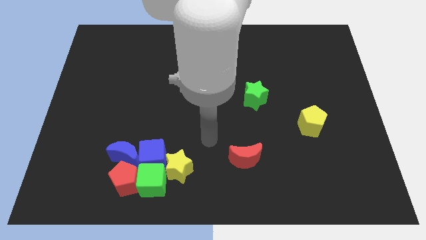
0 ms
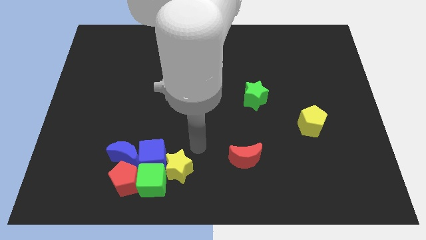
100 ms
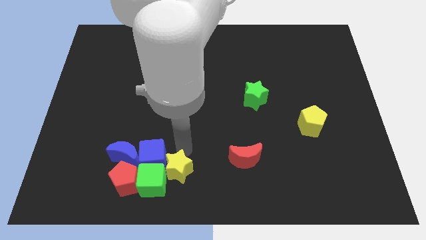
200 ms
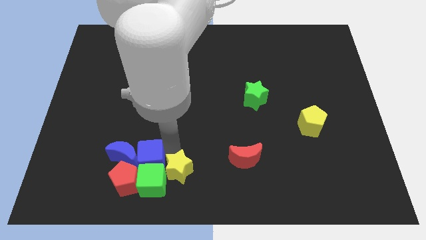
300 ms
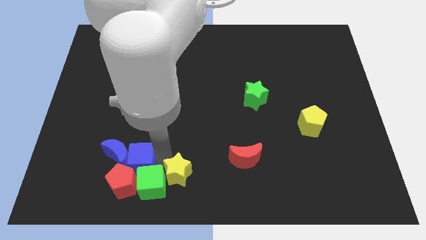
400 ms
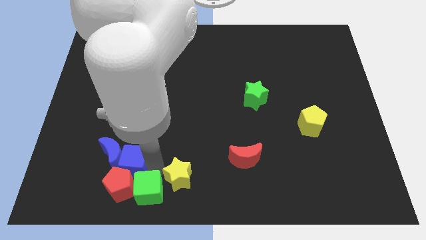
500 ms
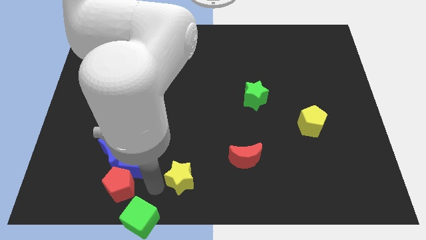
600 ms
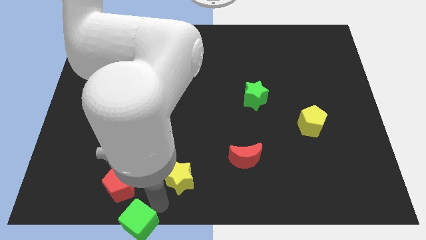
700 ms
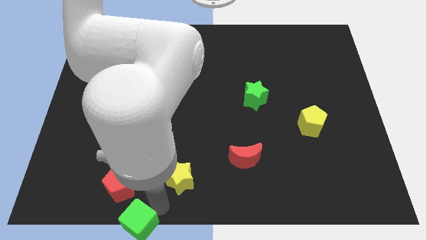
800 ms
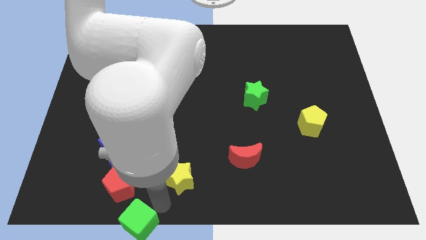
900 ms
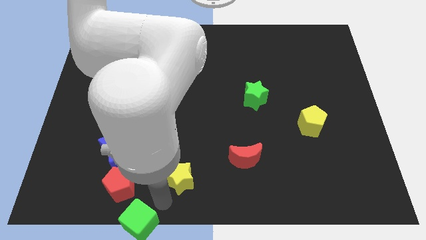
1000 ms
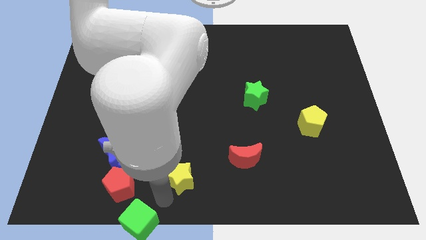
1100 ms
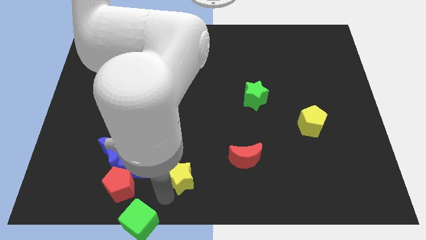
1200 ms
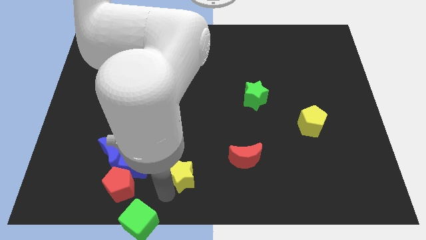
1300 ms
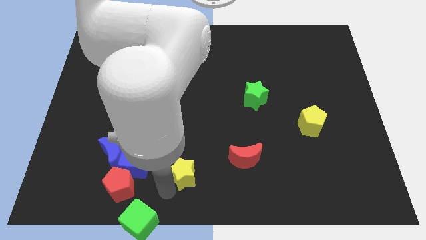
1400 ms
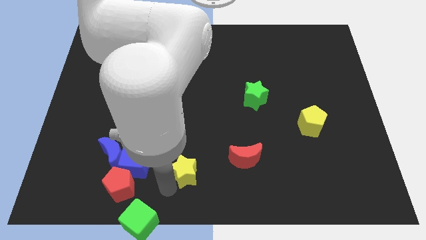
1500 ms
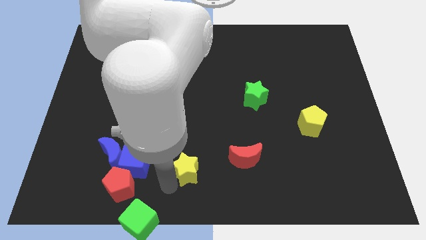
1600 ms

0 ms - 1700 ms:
pull the yellow star apart from the green cube and blue cube

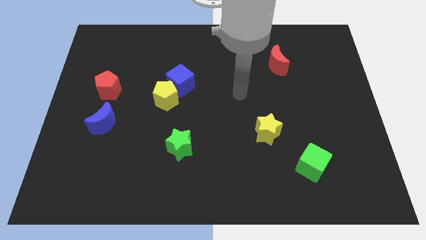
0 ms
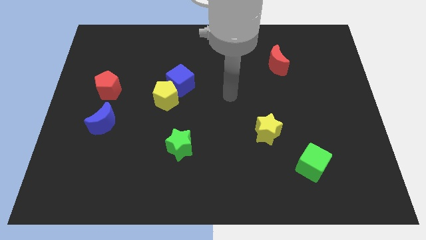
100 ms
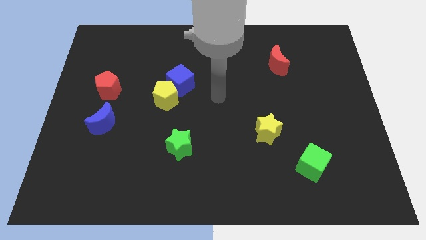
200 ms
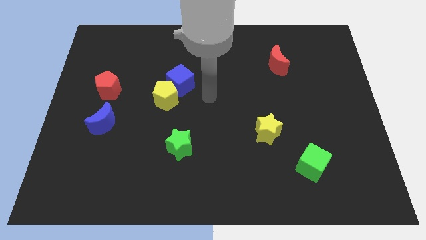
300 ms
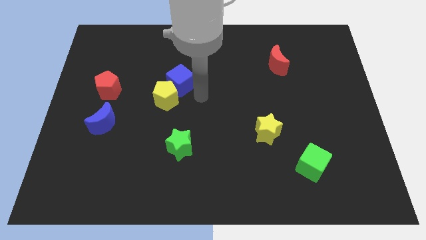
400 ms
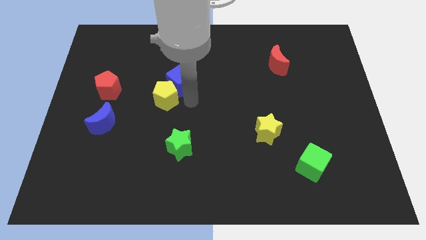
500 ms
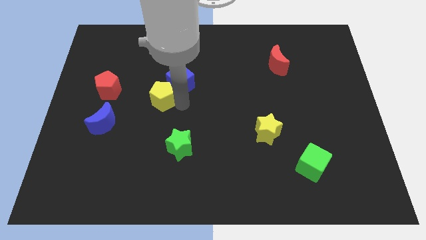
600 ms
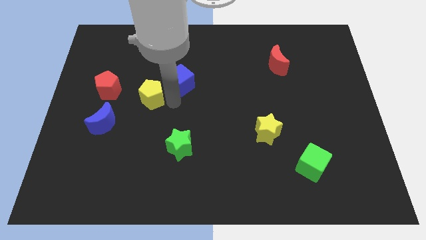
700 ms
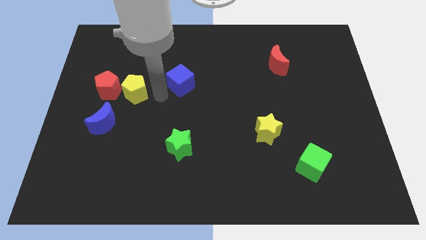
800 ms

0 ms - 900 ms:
separate the blue cube from the yellow pentagon

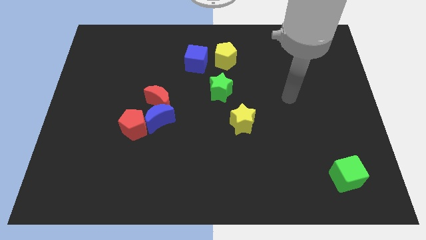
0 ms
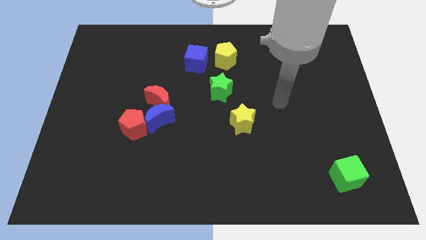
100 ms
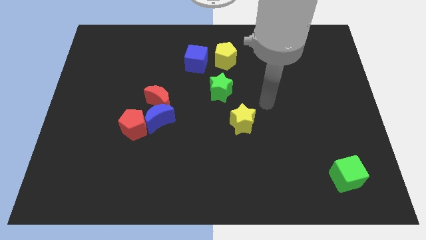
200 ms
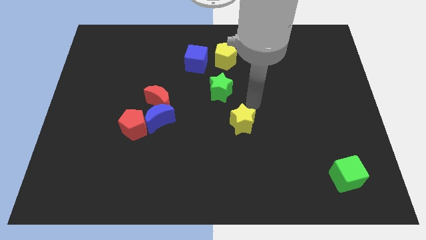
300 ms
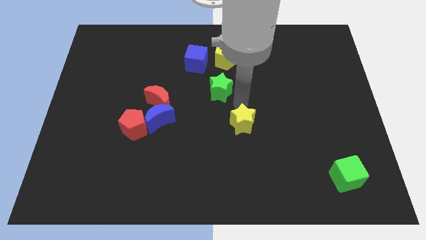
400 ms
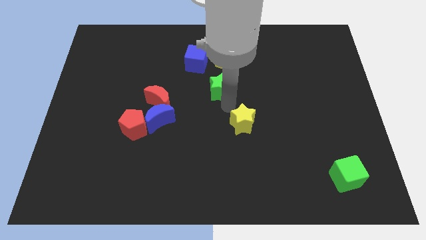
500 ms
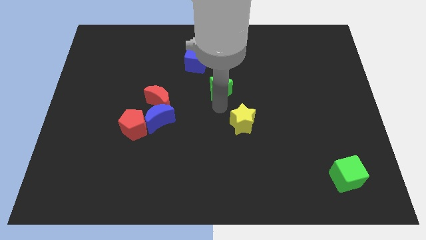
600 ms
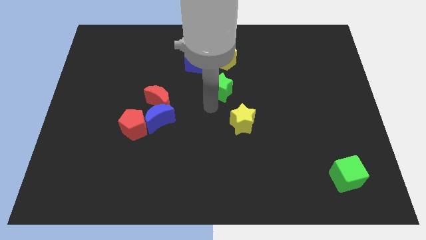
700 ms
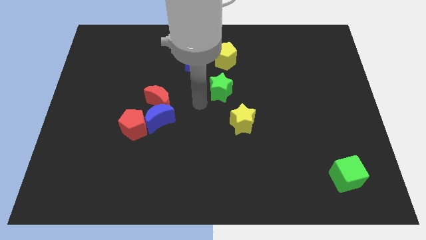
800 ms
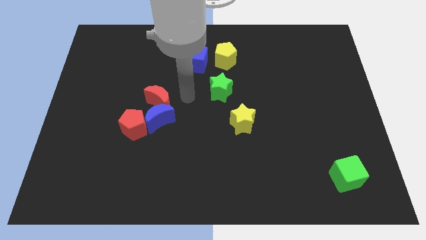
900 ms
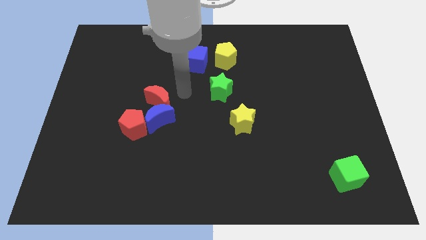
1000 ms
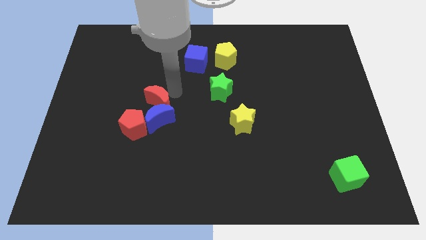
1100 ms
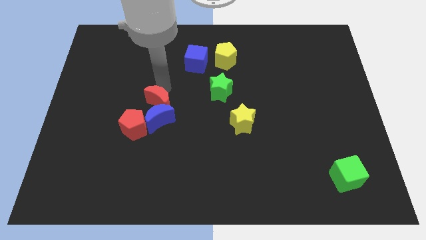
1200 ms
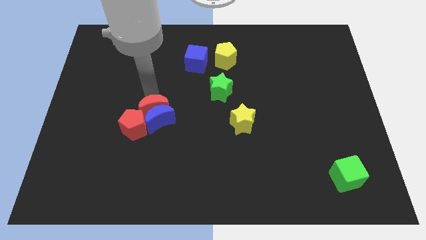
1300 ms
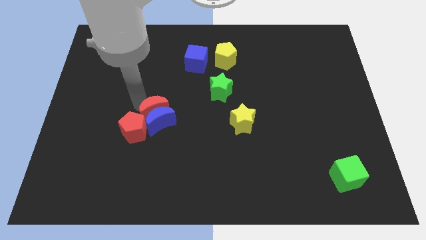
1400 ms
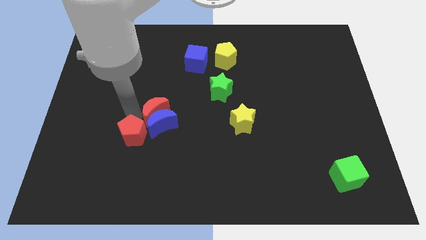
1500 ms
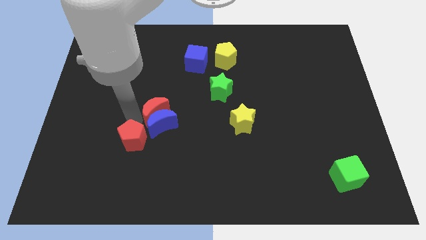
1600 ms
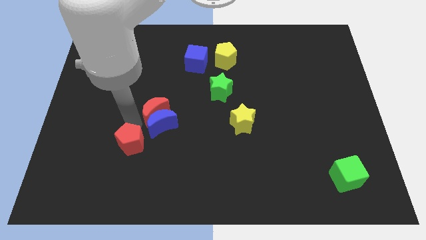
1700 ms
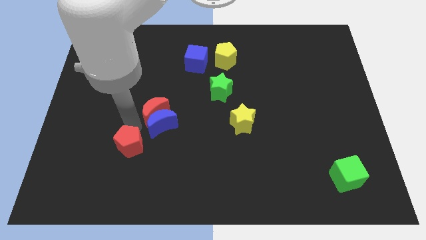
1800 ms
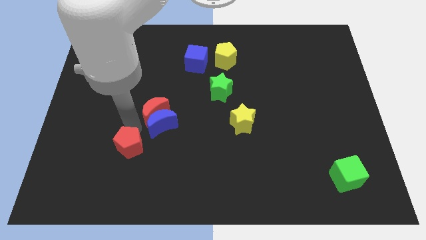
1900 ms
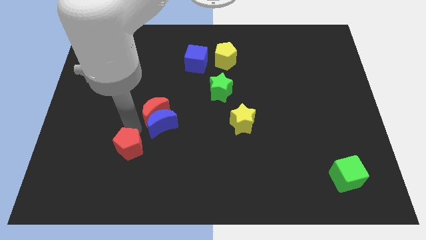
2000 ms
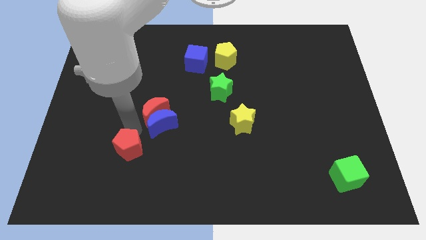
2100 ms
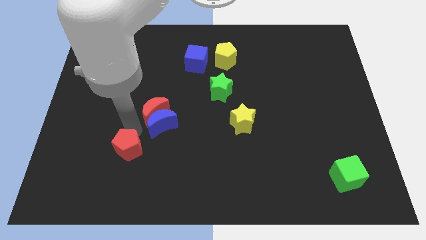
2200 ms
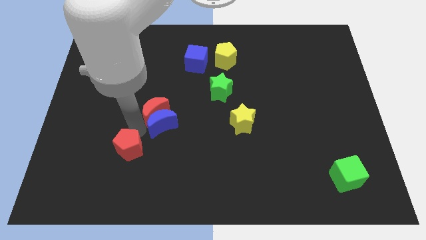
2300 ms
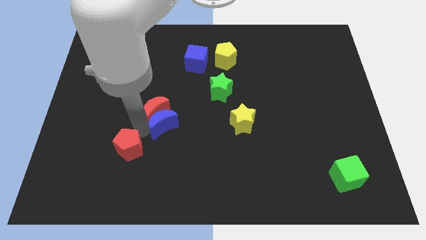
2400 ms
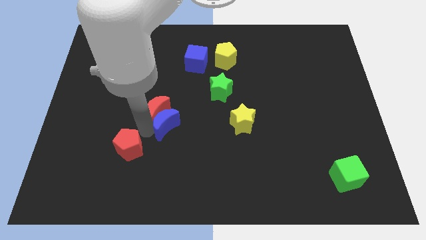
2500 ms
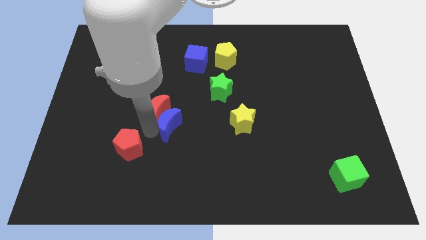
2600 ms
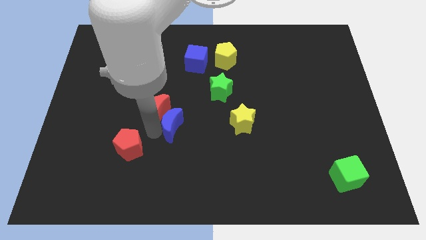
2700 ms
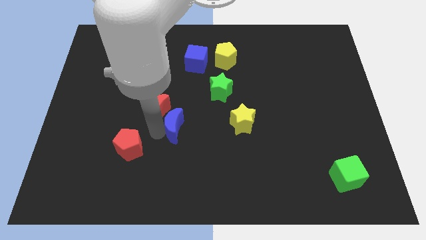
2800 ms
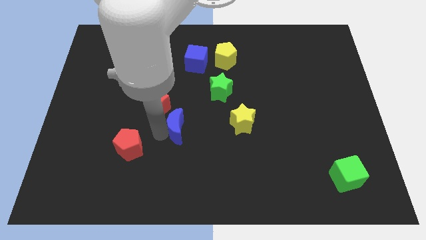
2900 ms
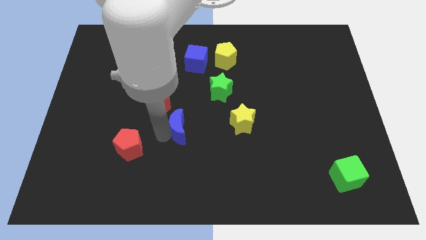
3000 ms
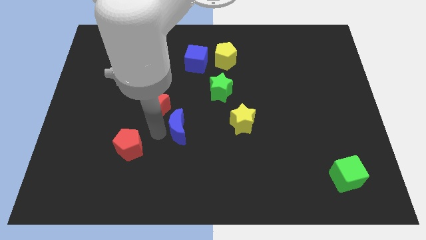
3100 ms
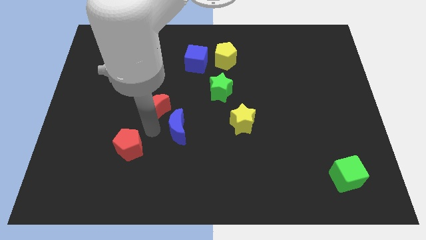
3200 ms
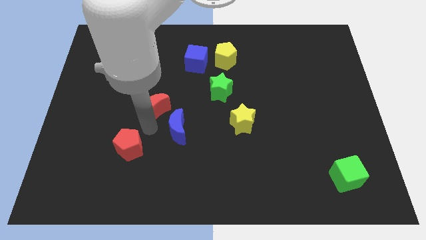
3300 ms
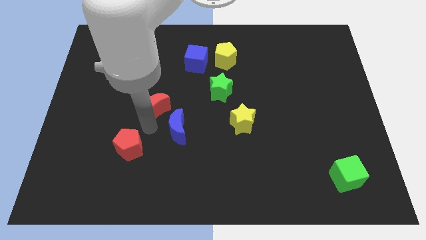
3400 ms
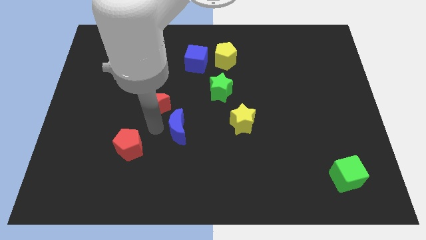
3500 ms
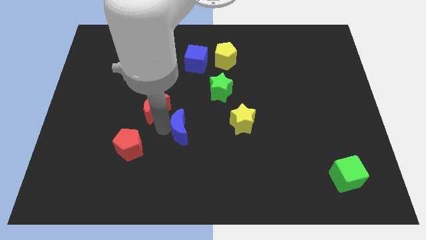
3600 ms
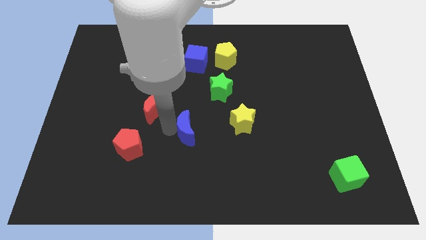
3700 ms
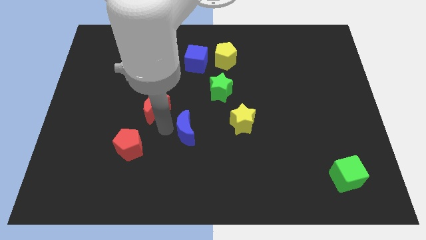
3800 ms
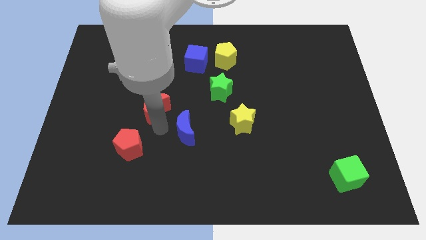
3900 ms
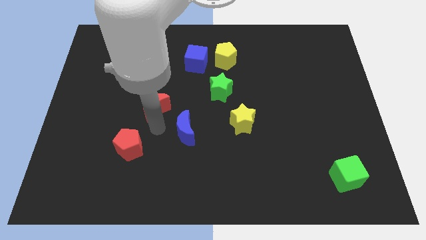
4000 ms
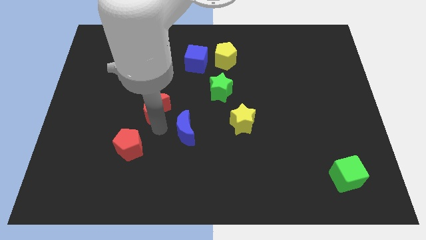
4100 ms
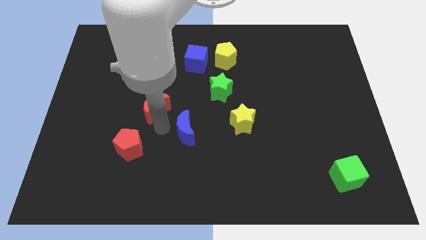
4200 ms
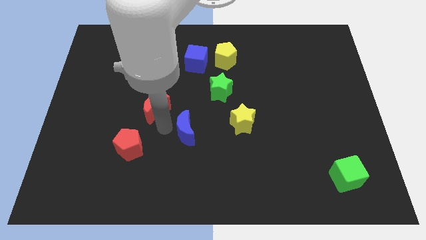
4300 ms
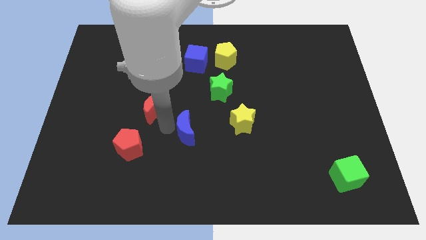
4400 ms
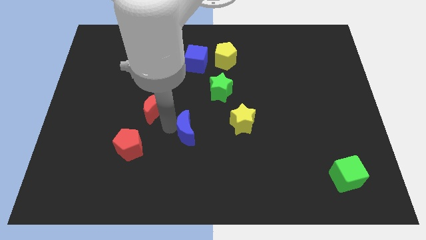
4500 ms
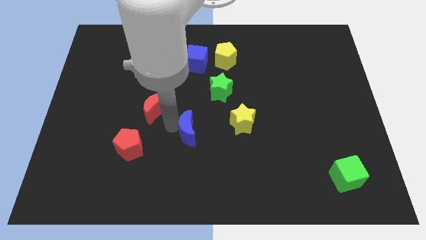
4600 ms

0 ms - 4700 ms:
separate the blue moon from the red moon and red pentagon

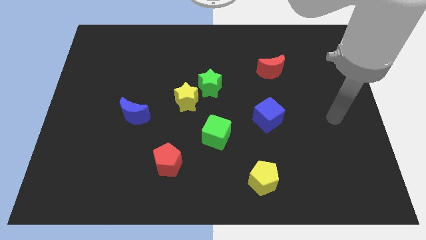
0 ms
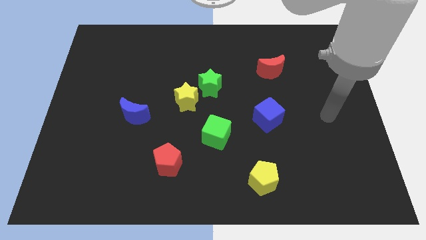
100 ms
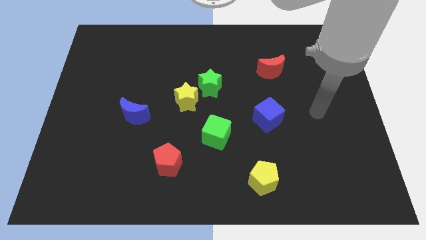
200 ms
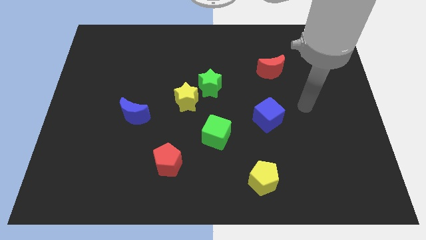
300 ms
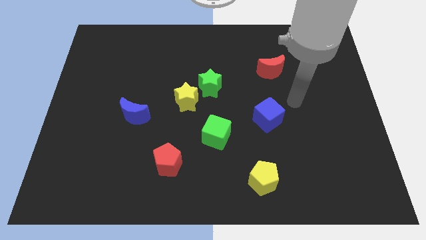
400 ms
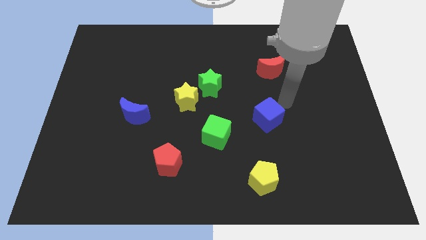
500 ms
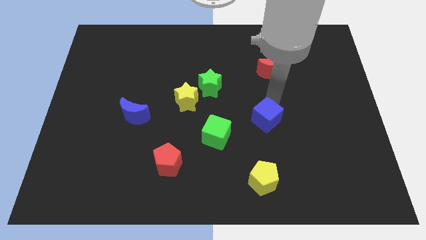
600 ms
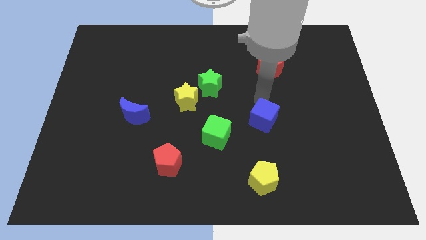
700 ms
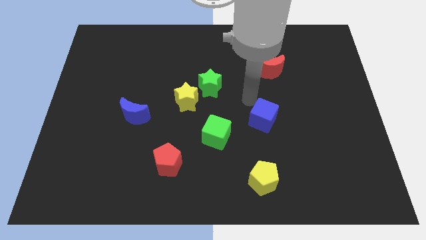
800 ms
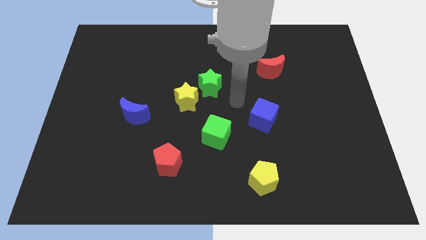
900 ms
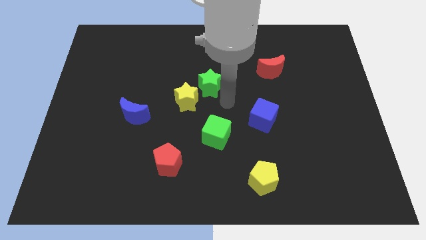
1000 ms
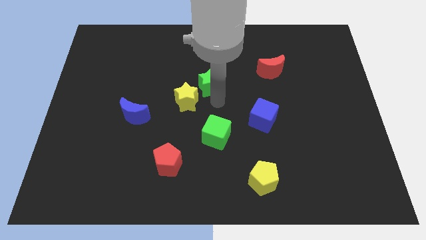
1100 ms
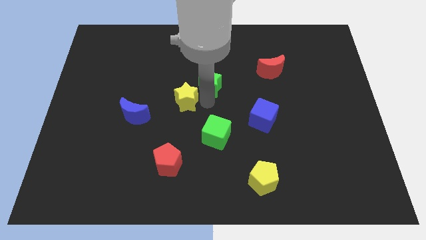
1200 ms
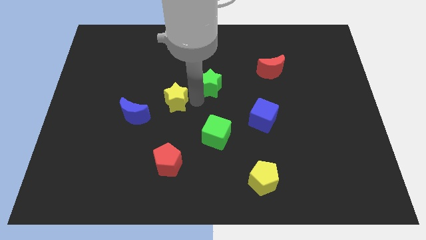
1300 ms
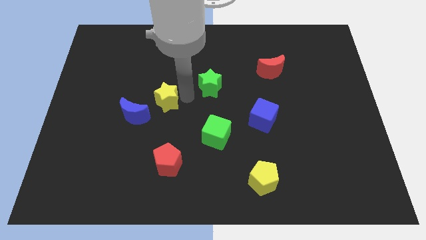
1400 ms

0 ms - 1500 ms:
move the green star away from the yellow star

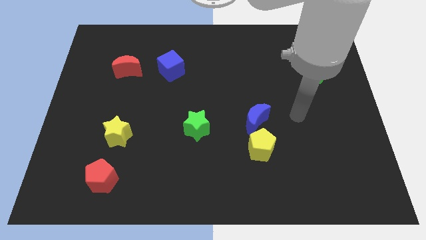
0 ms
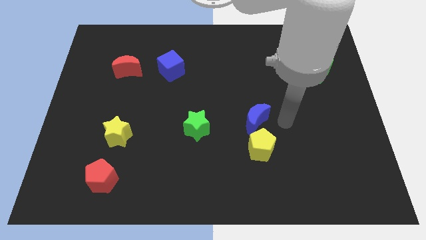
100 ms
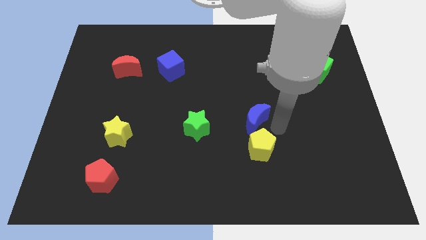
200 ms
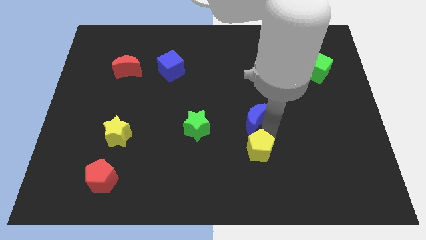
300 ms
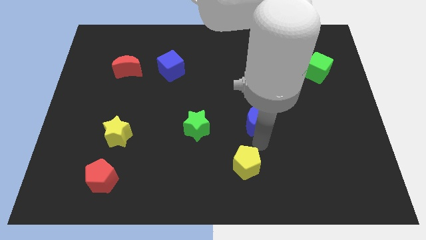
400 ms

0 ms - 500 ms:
pull the blue moon apart from the yellow pentagon

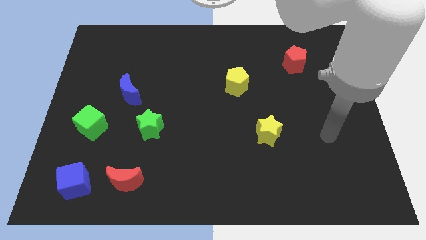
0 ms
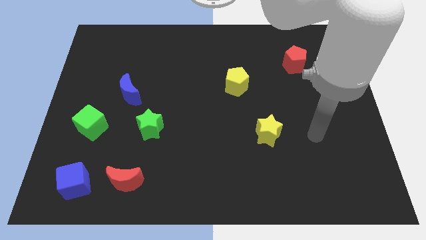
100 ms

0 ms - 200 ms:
move the red moon away from the blue cube

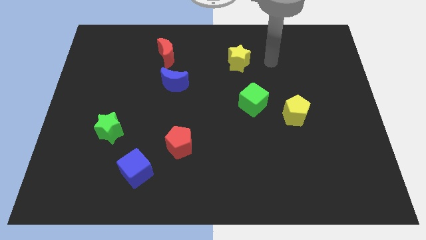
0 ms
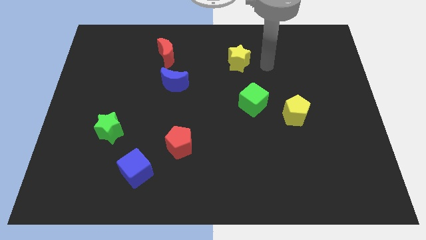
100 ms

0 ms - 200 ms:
separate the green cube from the yellow pentagon
